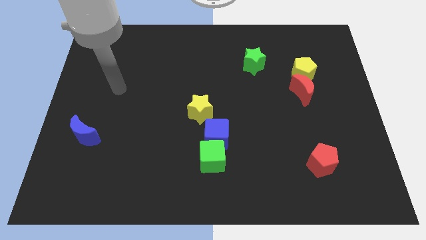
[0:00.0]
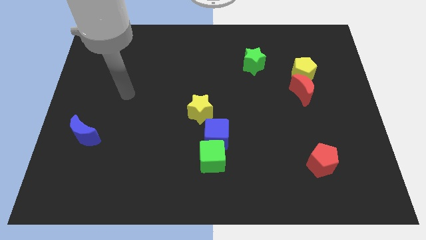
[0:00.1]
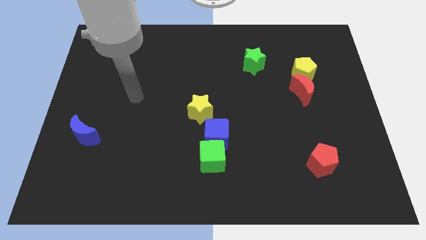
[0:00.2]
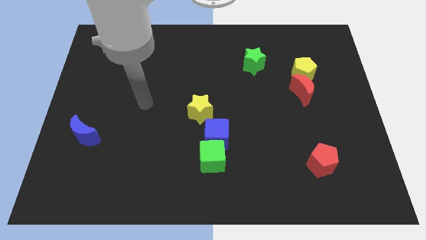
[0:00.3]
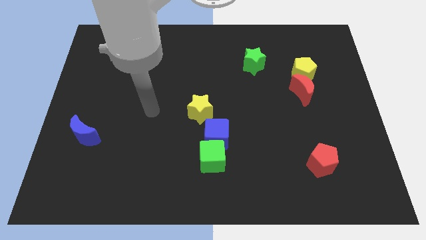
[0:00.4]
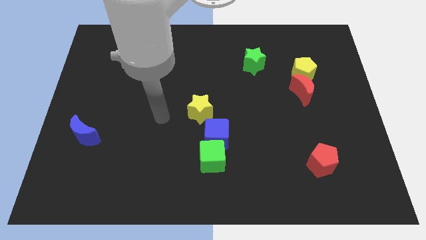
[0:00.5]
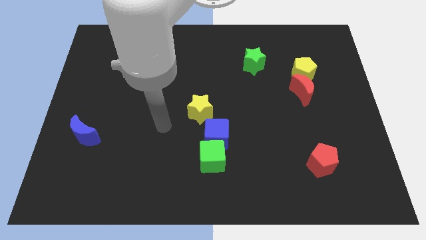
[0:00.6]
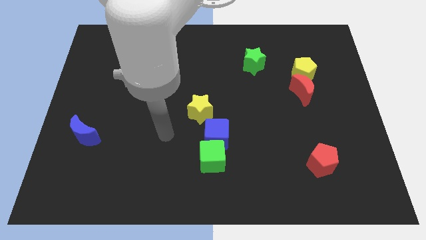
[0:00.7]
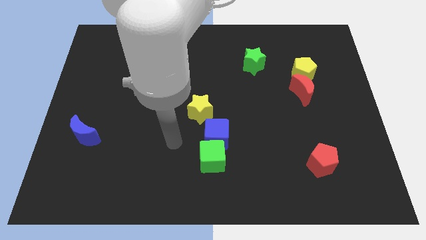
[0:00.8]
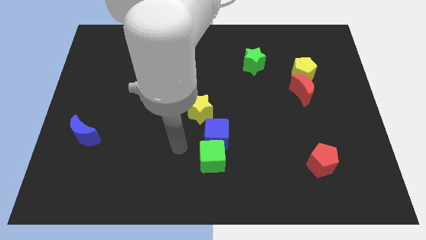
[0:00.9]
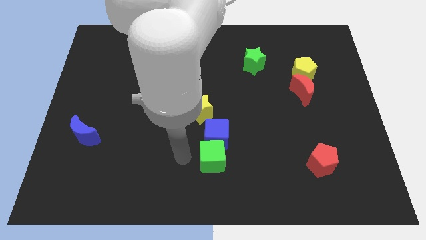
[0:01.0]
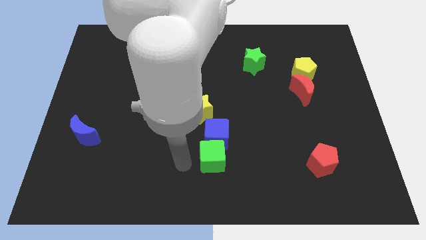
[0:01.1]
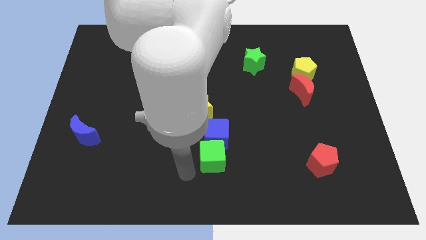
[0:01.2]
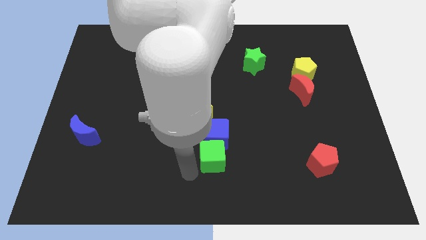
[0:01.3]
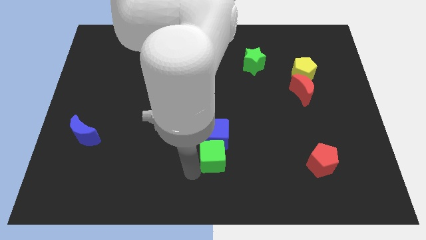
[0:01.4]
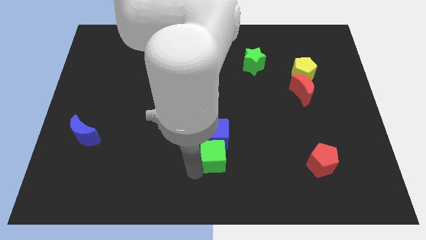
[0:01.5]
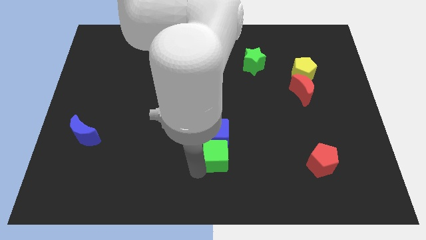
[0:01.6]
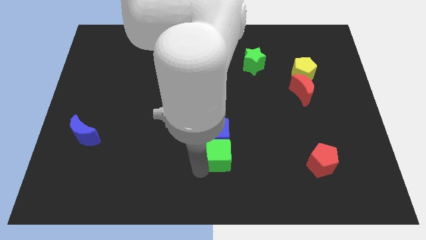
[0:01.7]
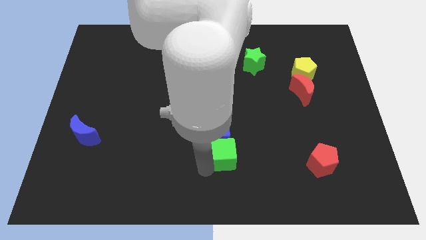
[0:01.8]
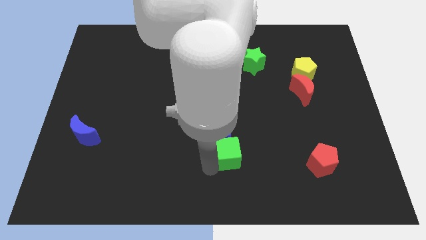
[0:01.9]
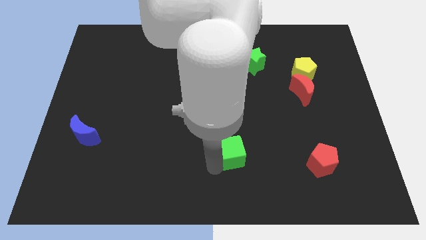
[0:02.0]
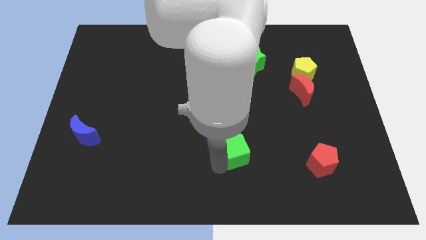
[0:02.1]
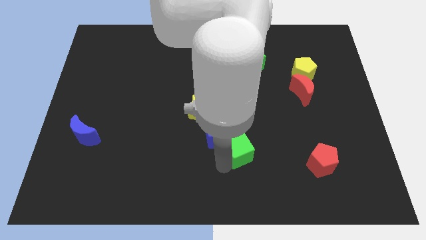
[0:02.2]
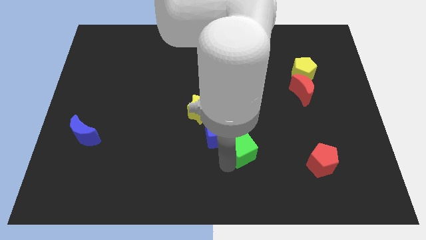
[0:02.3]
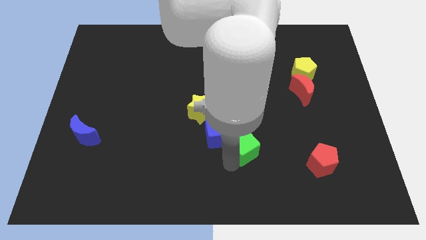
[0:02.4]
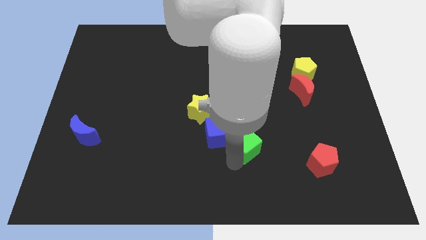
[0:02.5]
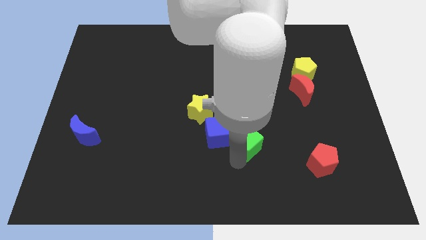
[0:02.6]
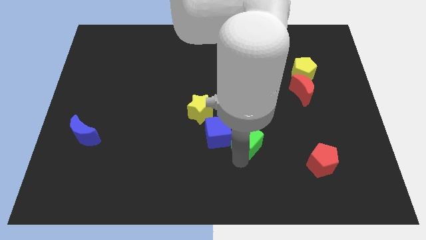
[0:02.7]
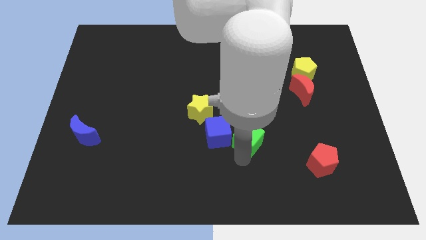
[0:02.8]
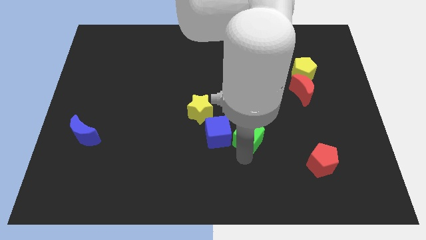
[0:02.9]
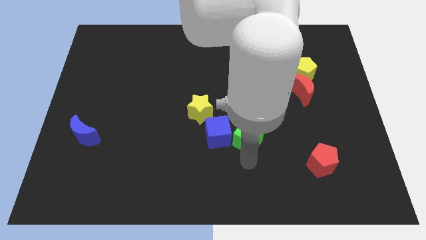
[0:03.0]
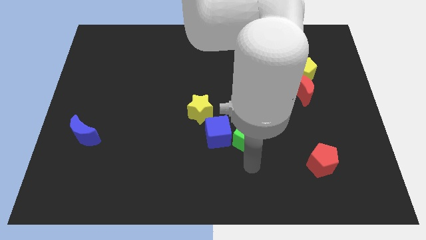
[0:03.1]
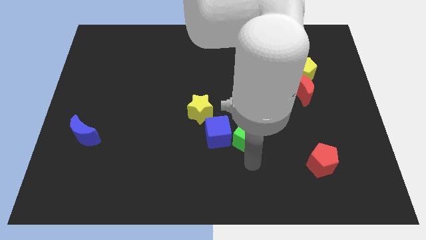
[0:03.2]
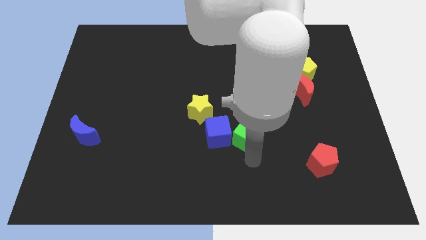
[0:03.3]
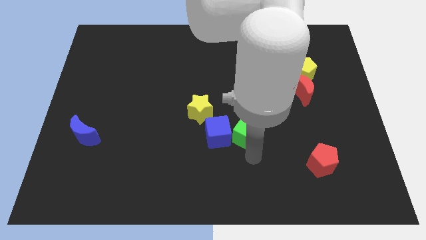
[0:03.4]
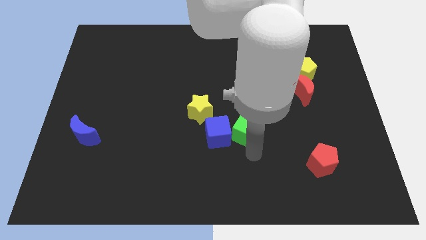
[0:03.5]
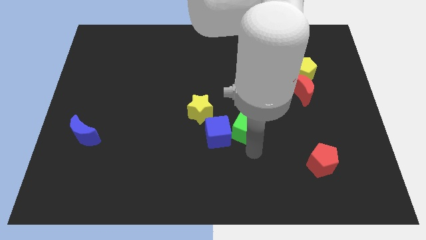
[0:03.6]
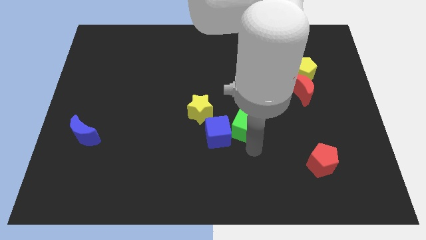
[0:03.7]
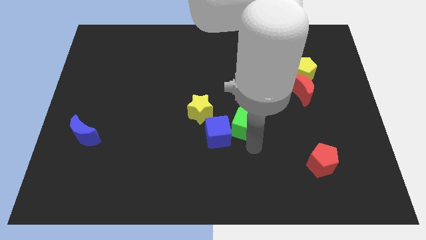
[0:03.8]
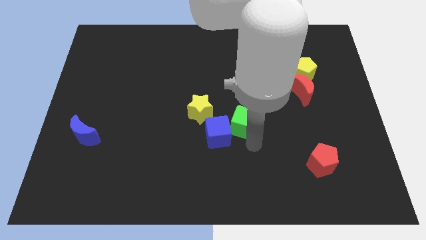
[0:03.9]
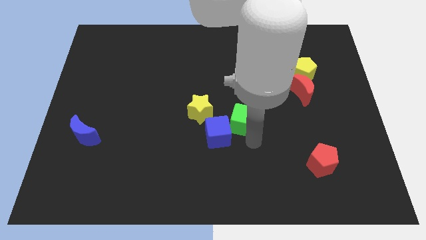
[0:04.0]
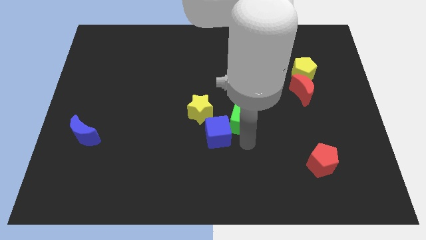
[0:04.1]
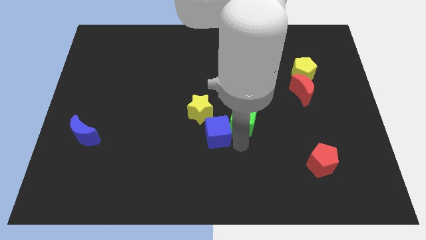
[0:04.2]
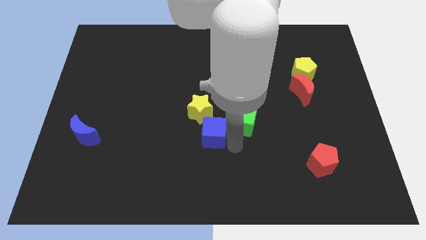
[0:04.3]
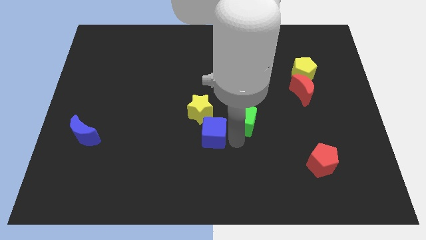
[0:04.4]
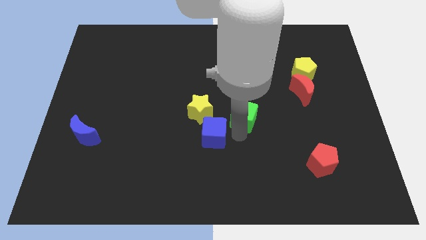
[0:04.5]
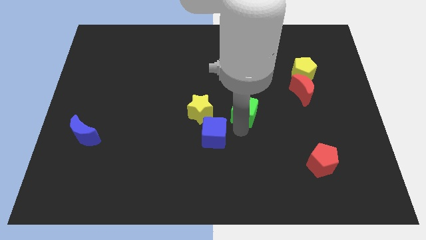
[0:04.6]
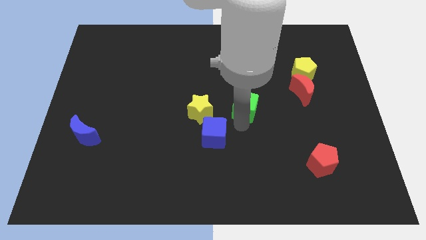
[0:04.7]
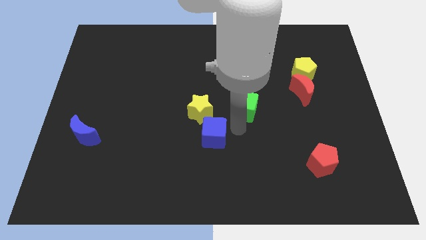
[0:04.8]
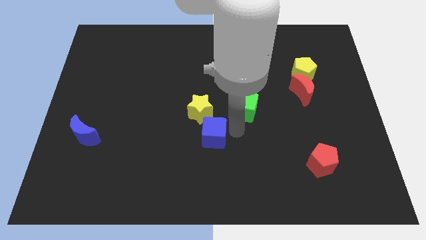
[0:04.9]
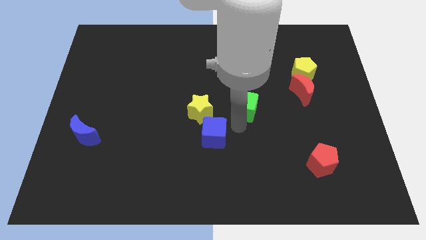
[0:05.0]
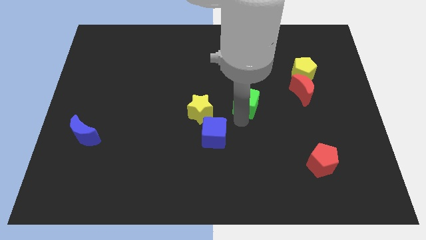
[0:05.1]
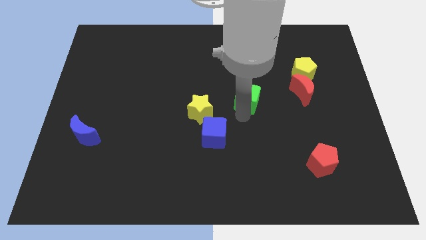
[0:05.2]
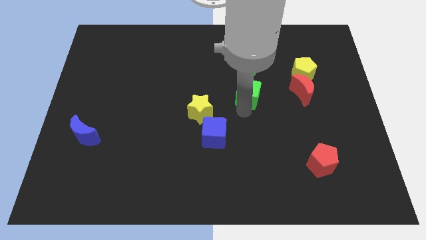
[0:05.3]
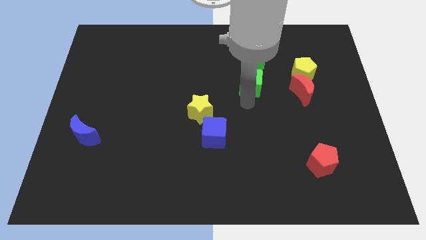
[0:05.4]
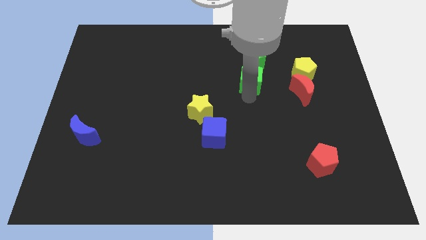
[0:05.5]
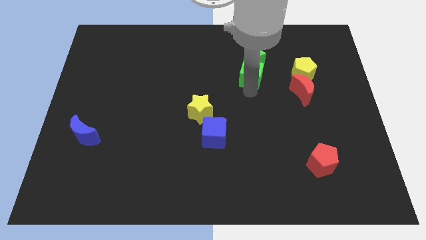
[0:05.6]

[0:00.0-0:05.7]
push the green cube to the green star

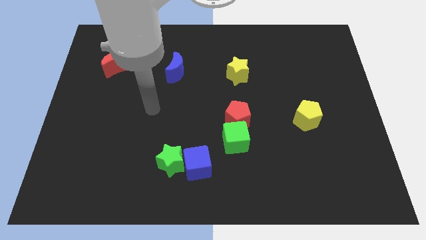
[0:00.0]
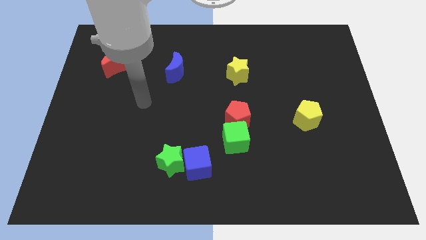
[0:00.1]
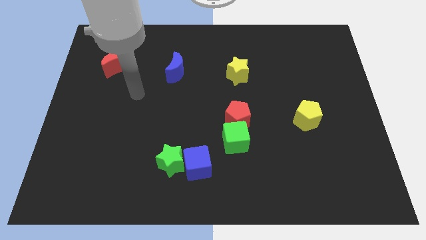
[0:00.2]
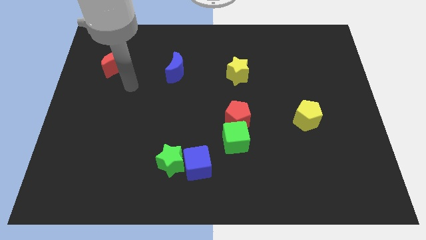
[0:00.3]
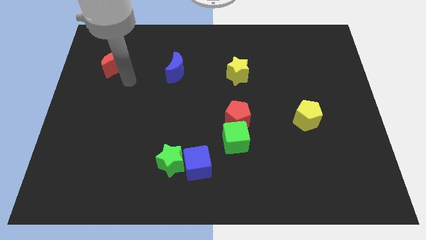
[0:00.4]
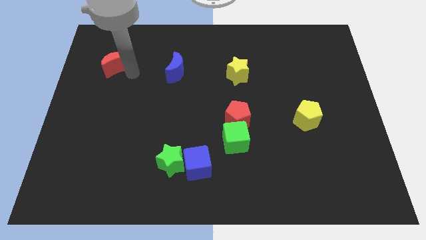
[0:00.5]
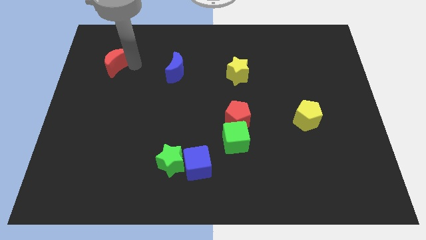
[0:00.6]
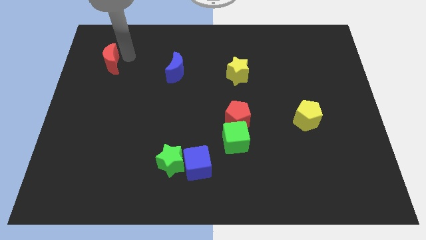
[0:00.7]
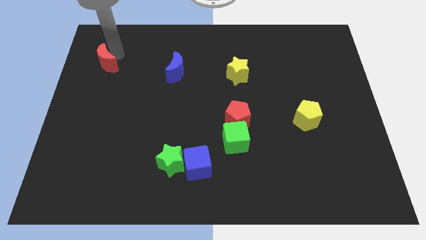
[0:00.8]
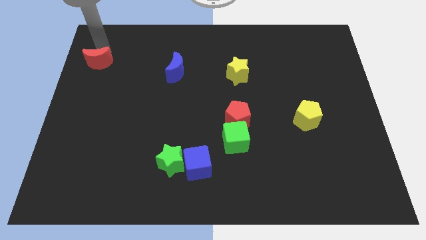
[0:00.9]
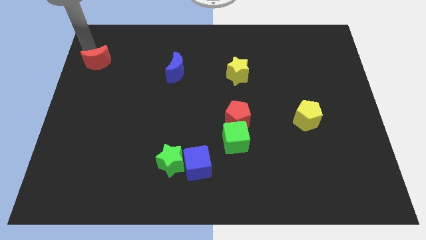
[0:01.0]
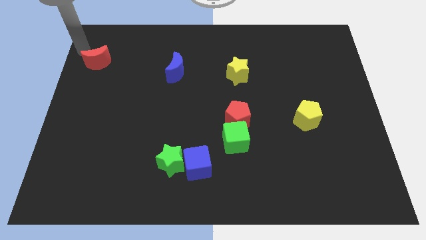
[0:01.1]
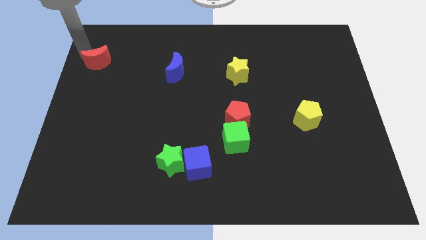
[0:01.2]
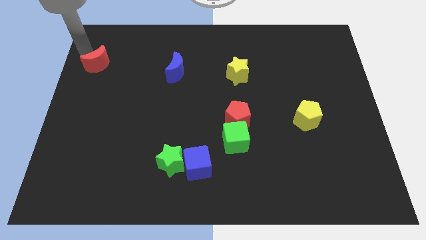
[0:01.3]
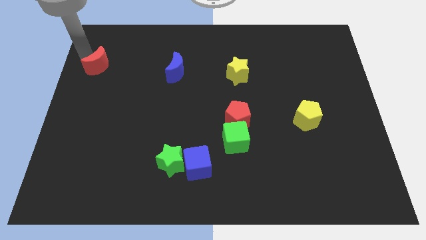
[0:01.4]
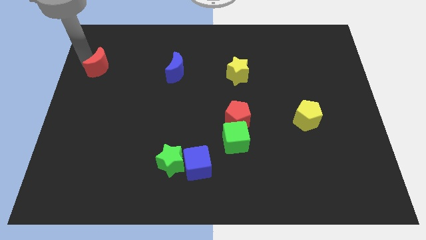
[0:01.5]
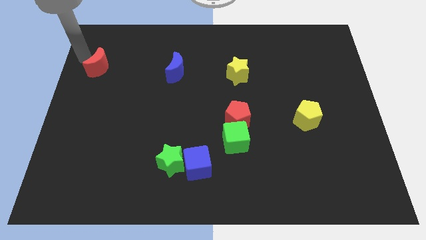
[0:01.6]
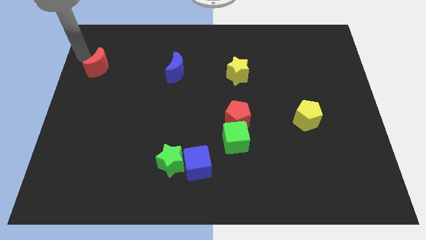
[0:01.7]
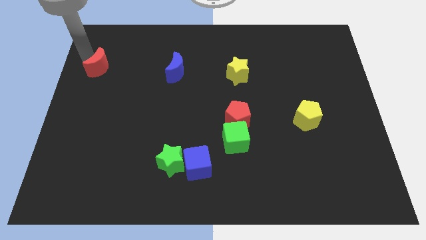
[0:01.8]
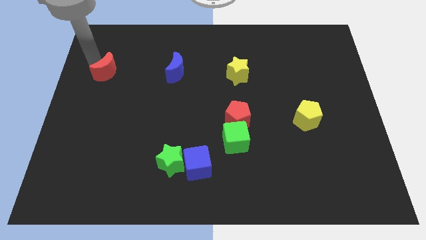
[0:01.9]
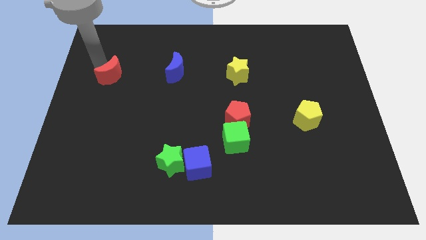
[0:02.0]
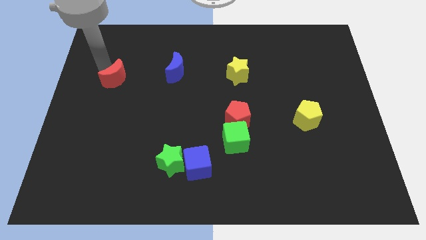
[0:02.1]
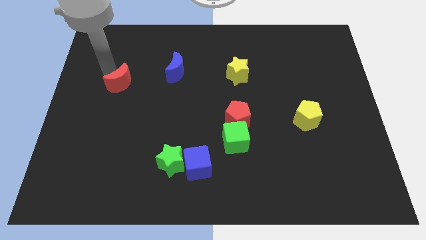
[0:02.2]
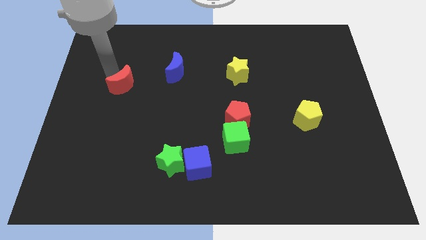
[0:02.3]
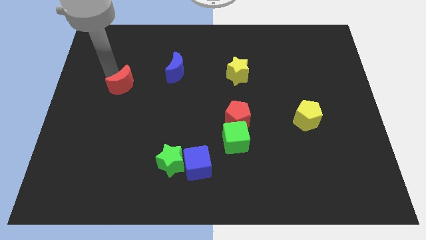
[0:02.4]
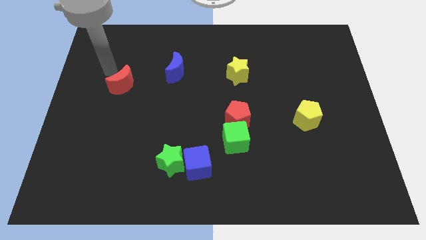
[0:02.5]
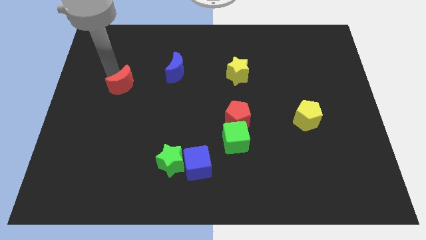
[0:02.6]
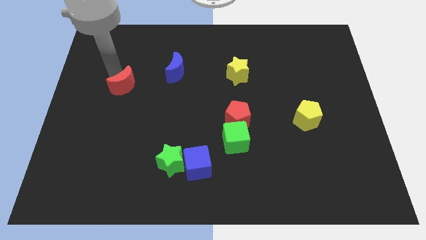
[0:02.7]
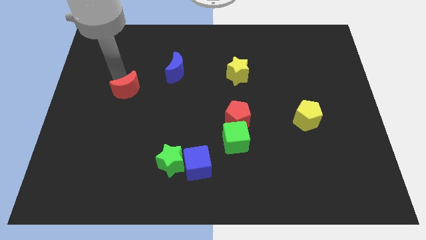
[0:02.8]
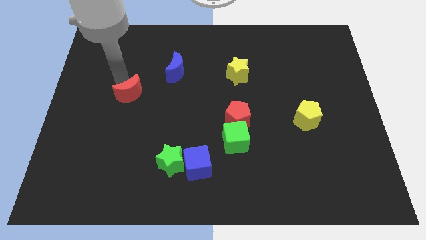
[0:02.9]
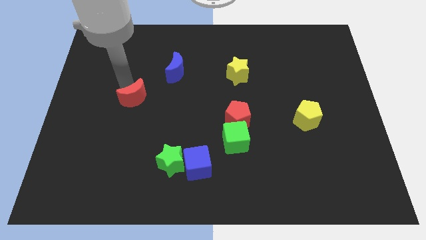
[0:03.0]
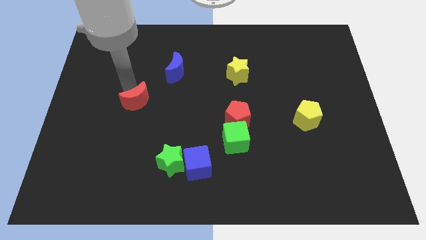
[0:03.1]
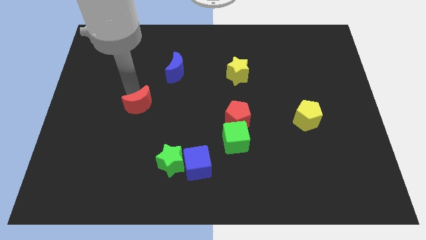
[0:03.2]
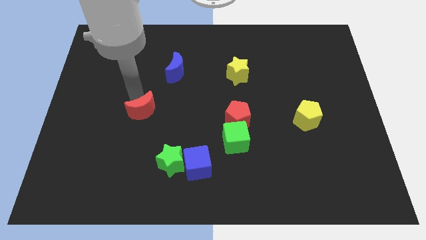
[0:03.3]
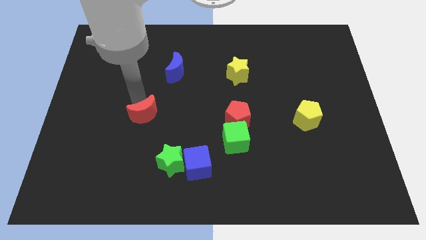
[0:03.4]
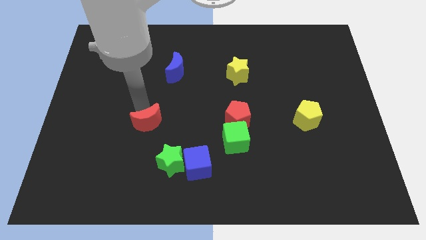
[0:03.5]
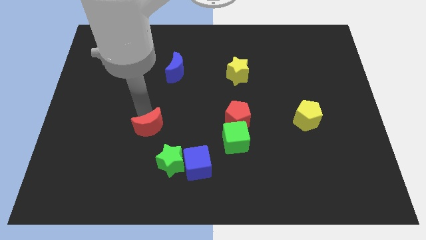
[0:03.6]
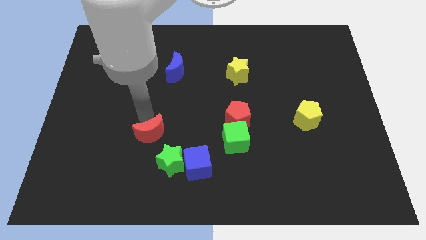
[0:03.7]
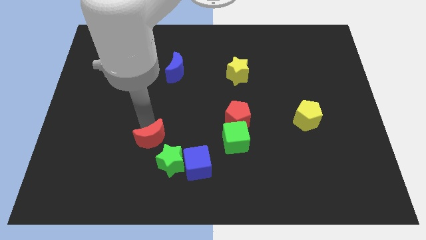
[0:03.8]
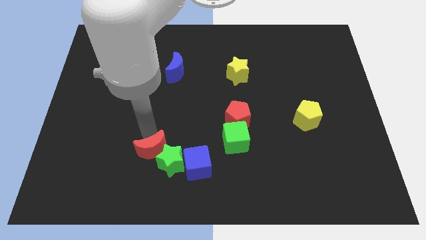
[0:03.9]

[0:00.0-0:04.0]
slide the red moon towards the green star
